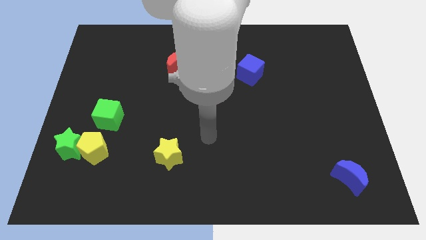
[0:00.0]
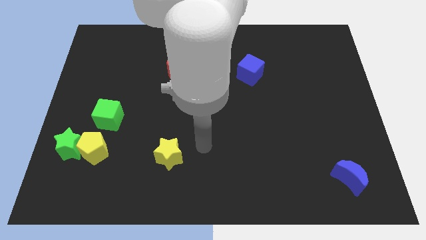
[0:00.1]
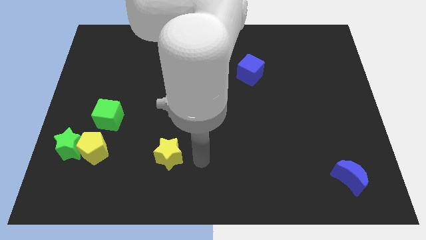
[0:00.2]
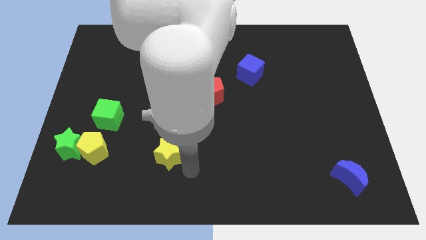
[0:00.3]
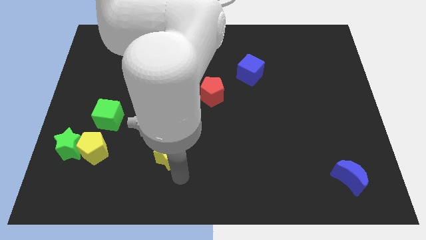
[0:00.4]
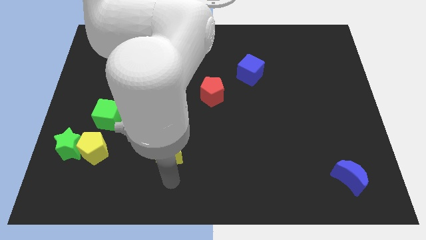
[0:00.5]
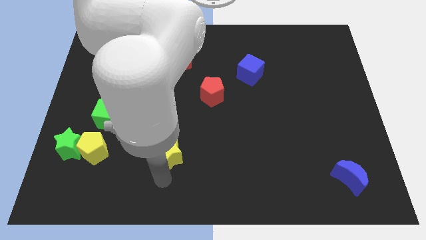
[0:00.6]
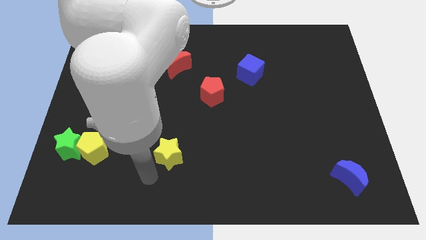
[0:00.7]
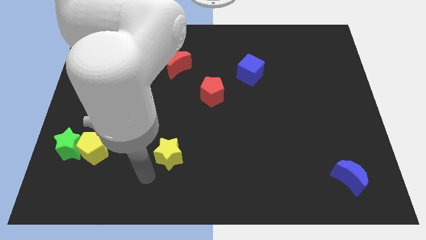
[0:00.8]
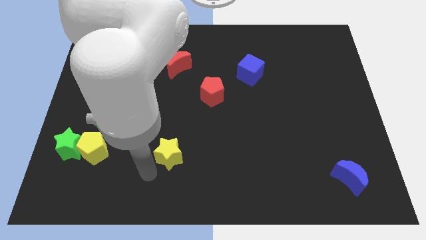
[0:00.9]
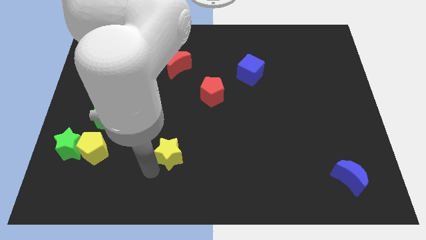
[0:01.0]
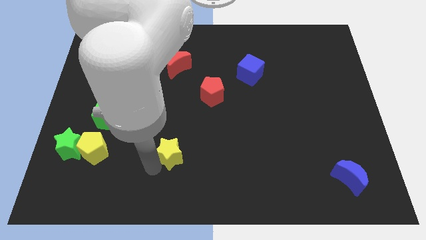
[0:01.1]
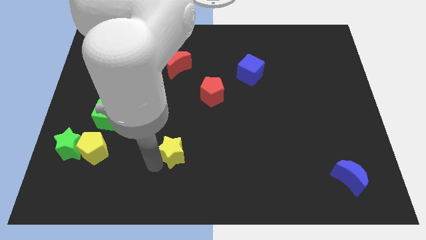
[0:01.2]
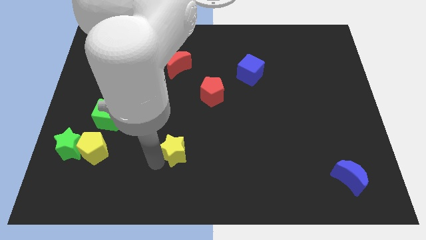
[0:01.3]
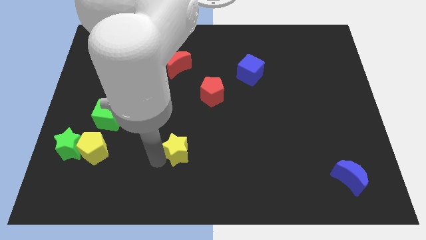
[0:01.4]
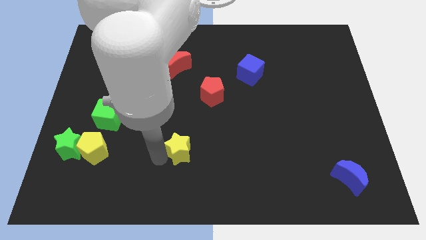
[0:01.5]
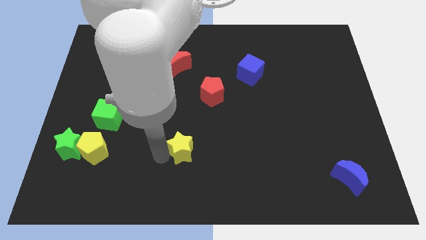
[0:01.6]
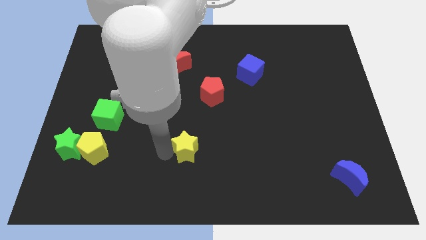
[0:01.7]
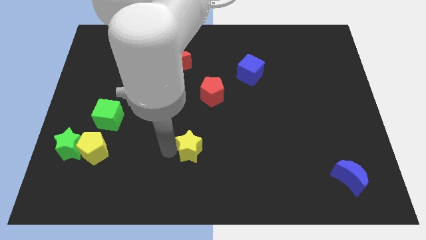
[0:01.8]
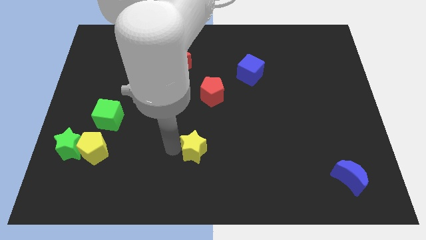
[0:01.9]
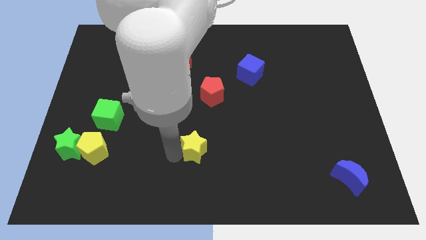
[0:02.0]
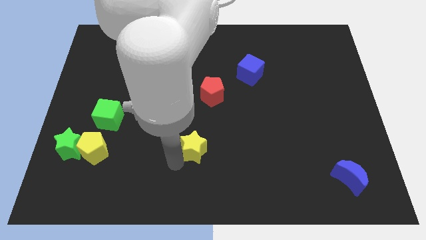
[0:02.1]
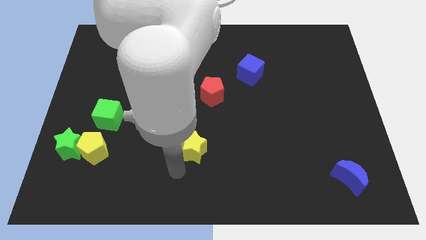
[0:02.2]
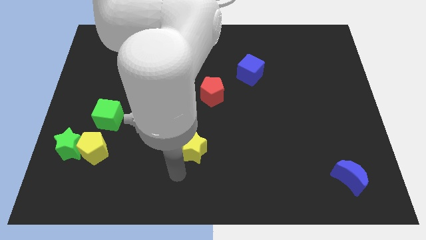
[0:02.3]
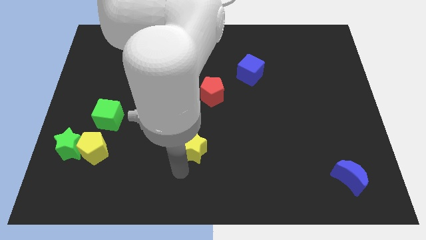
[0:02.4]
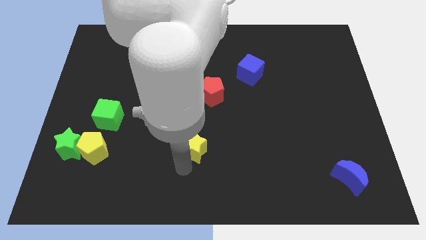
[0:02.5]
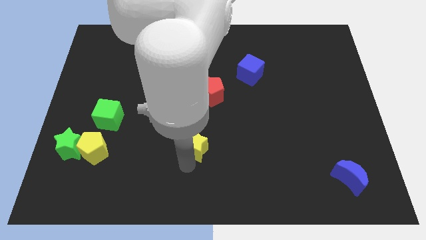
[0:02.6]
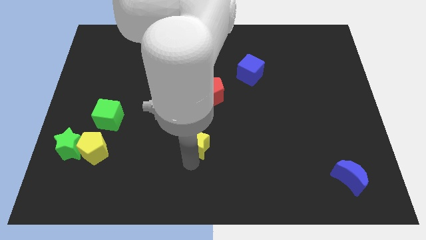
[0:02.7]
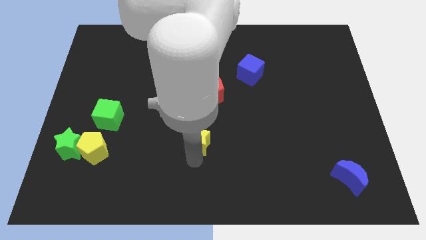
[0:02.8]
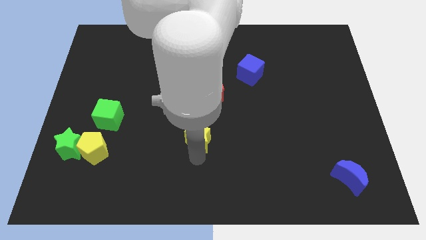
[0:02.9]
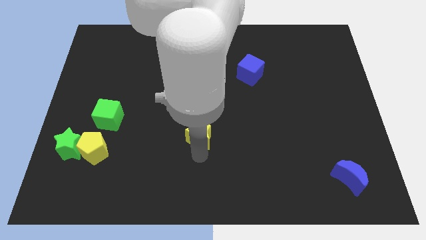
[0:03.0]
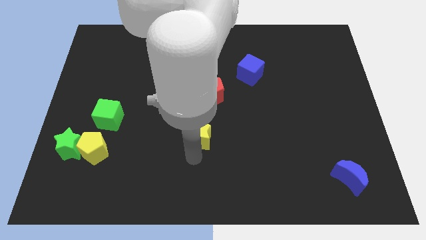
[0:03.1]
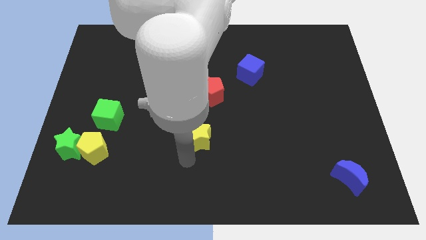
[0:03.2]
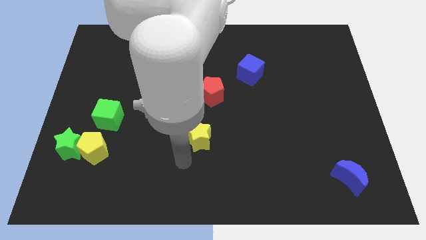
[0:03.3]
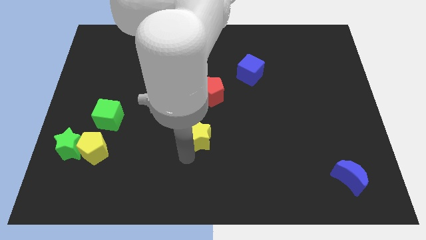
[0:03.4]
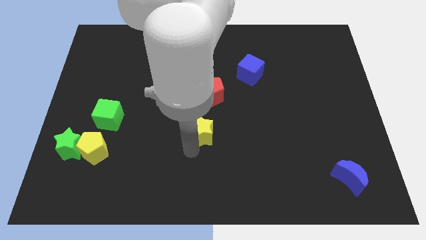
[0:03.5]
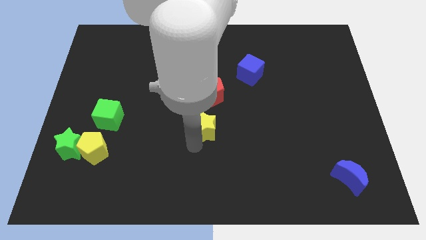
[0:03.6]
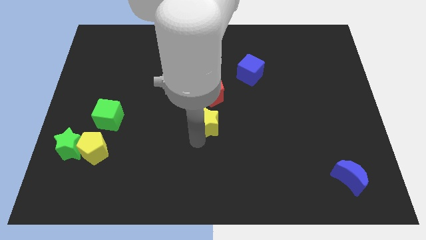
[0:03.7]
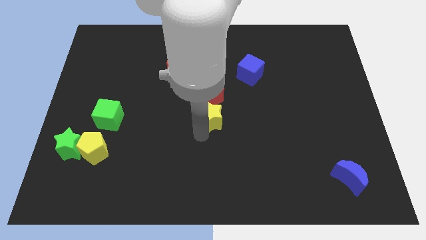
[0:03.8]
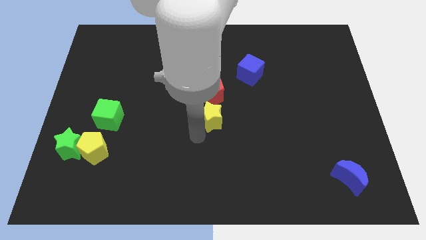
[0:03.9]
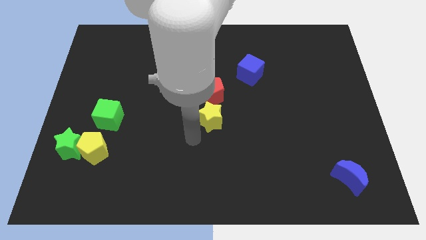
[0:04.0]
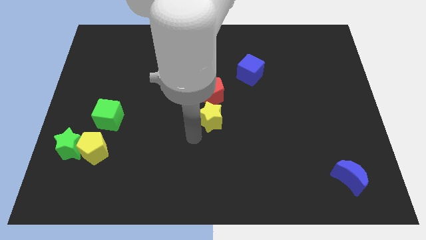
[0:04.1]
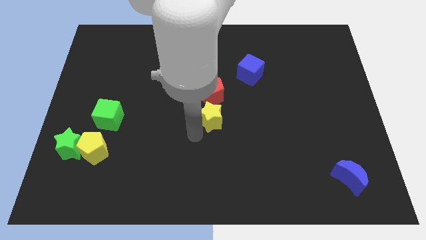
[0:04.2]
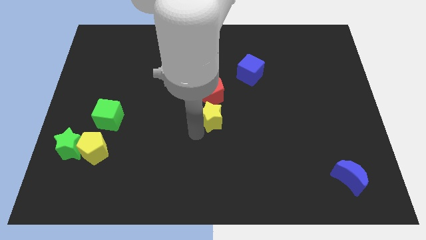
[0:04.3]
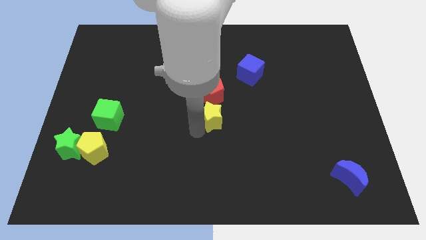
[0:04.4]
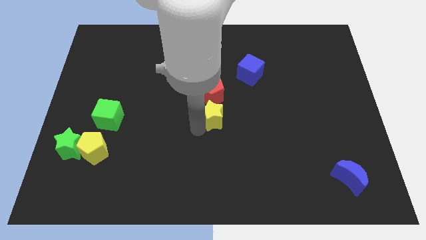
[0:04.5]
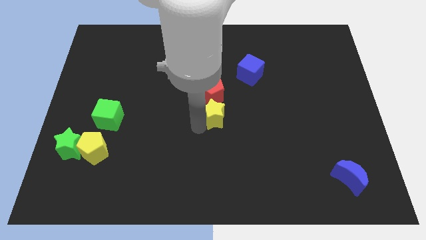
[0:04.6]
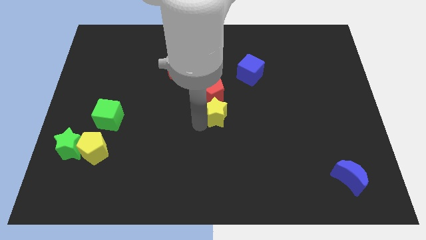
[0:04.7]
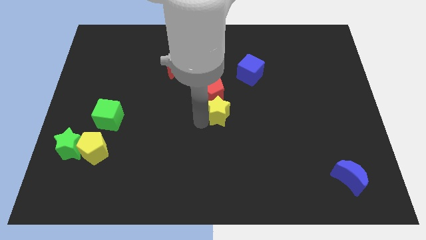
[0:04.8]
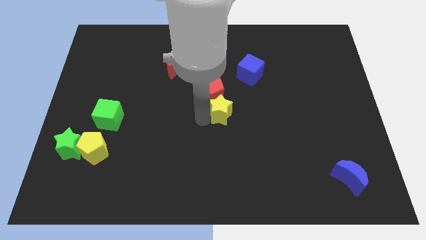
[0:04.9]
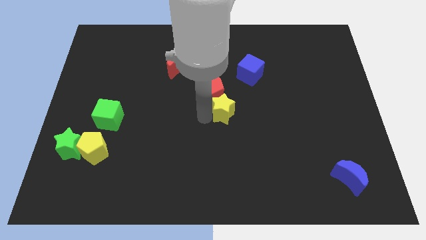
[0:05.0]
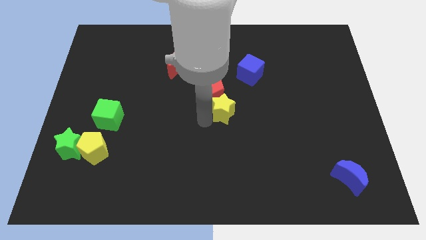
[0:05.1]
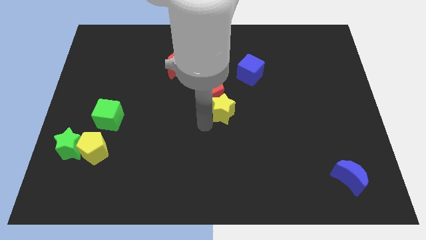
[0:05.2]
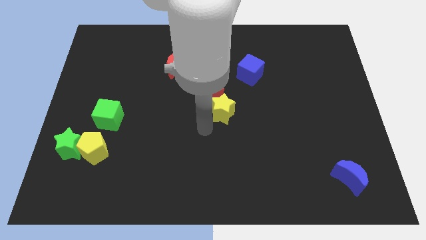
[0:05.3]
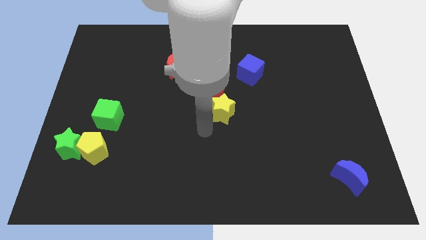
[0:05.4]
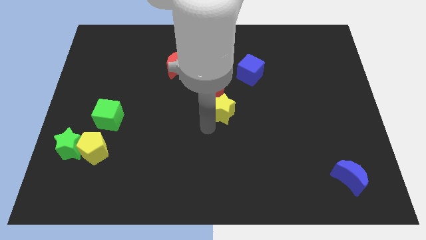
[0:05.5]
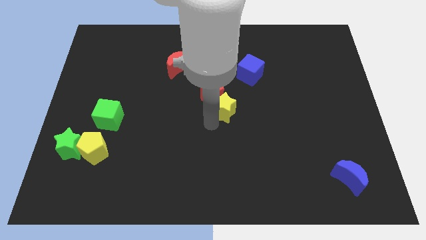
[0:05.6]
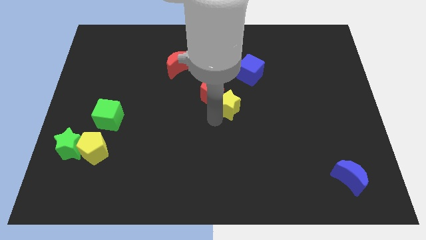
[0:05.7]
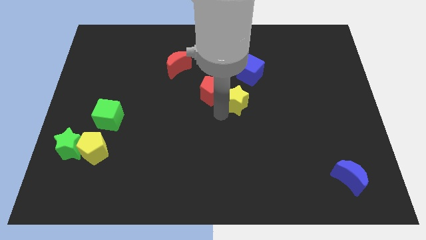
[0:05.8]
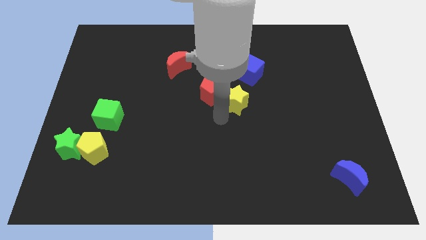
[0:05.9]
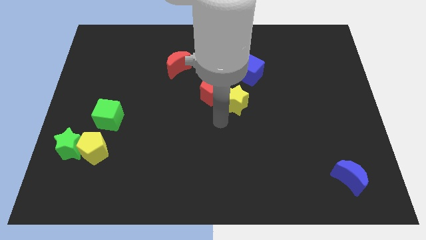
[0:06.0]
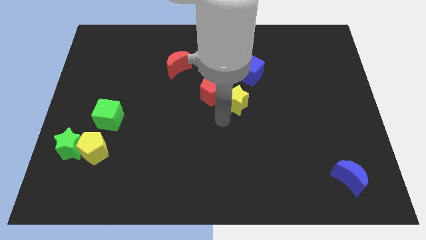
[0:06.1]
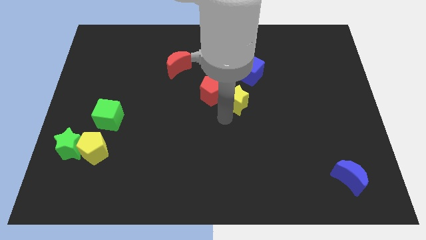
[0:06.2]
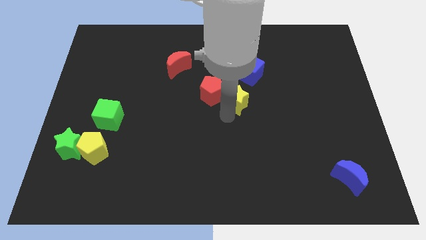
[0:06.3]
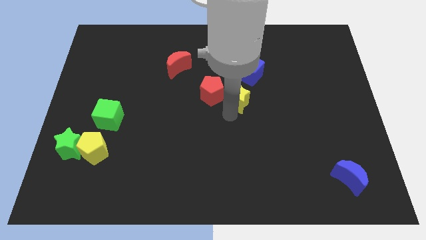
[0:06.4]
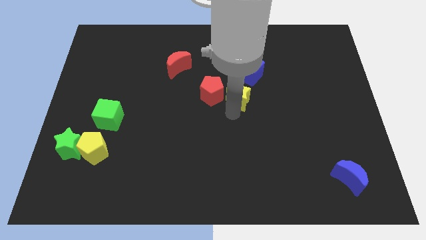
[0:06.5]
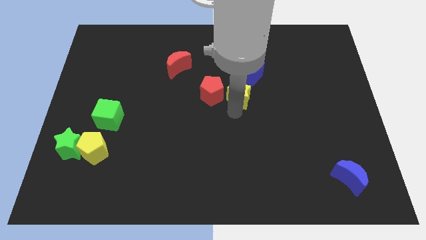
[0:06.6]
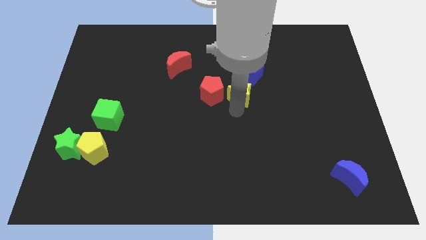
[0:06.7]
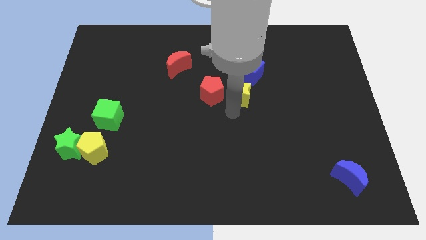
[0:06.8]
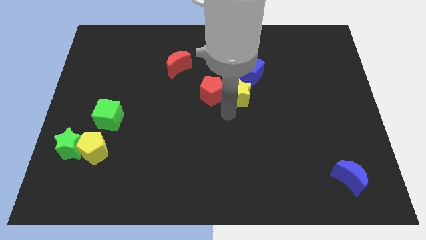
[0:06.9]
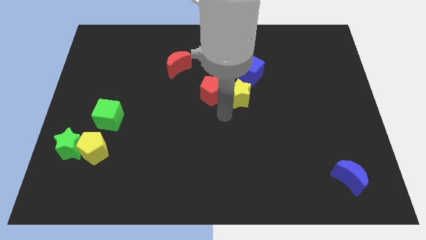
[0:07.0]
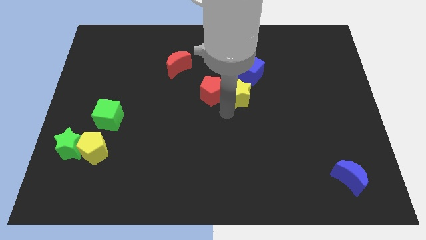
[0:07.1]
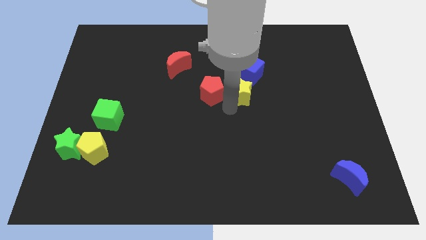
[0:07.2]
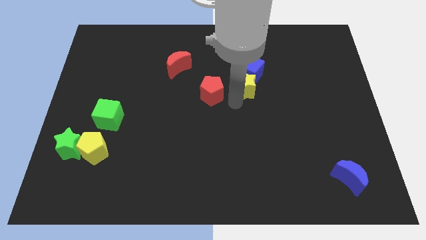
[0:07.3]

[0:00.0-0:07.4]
put the yellow star next to the blue cube
